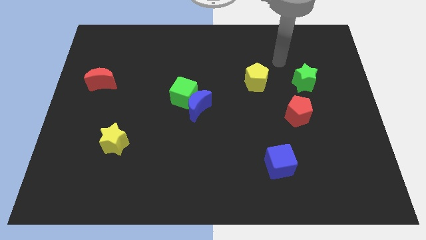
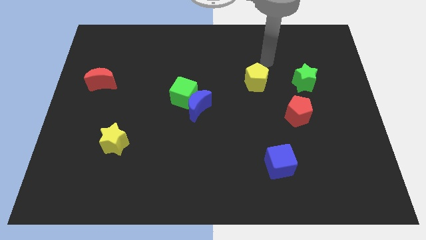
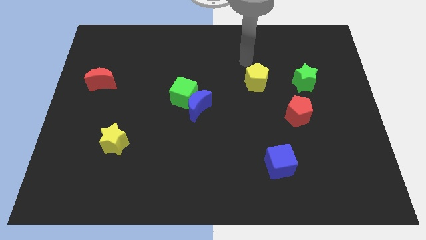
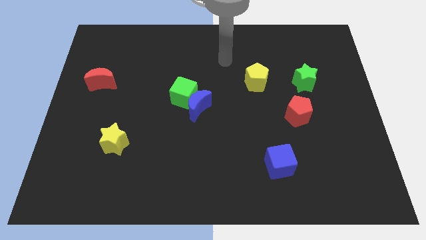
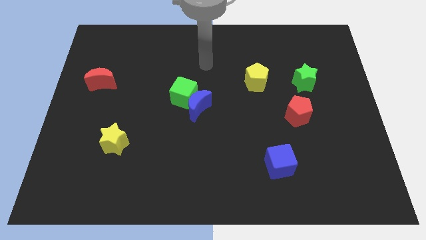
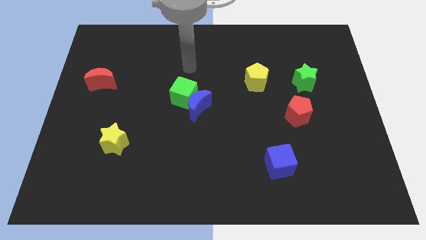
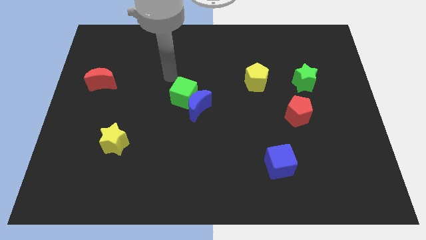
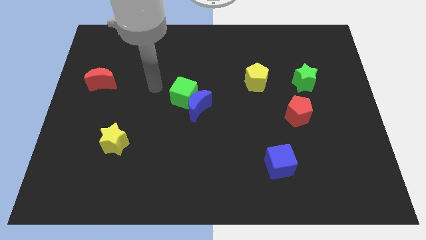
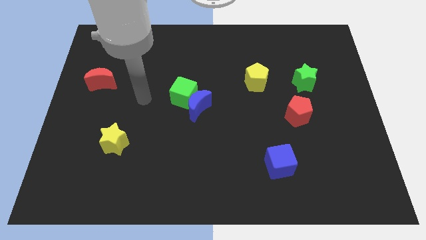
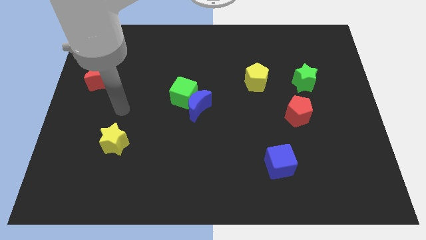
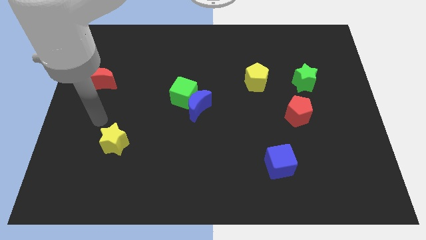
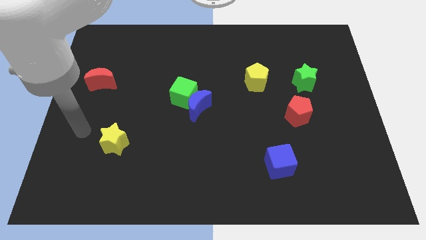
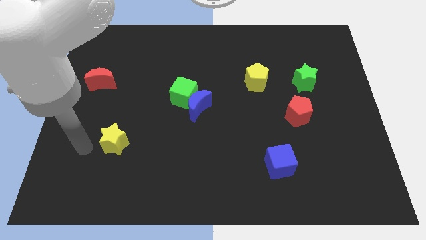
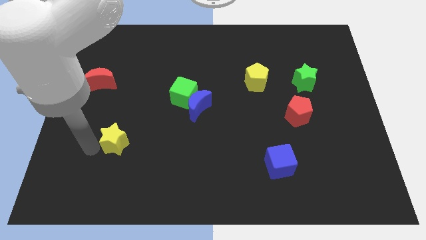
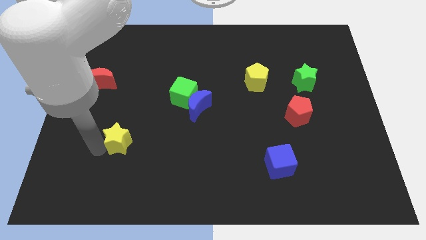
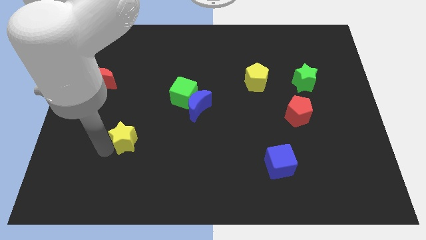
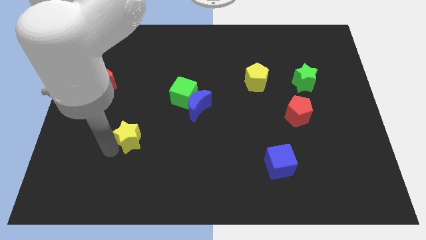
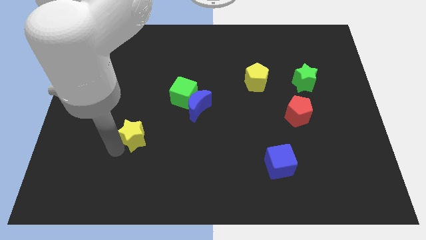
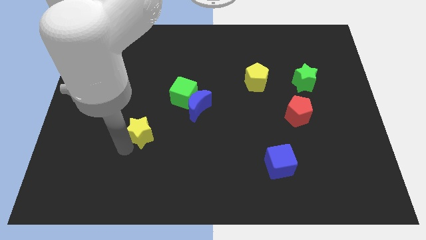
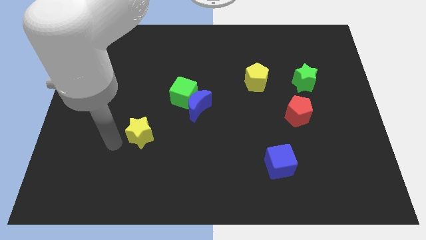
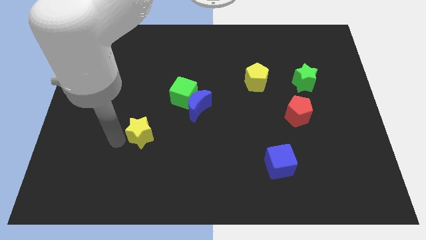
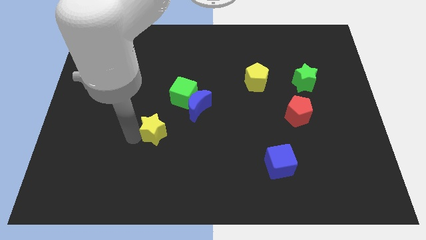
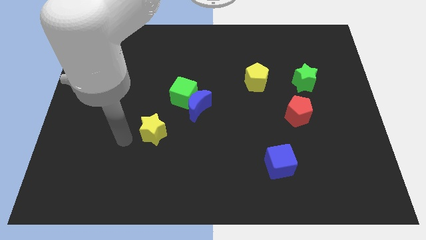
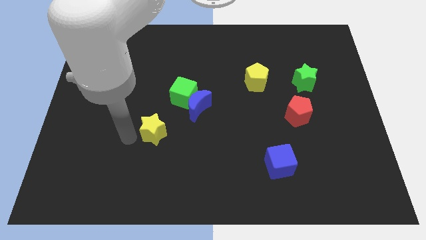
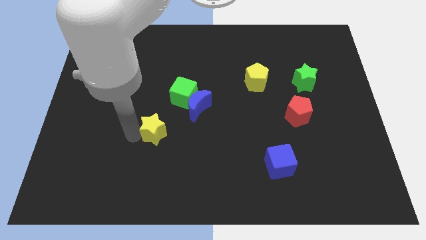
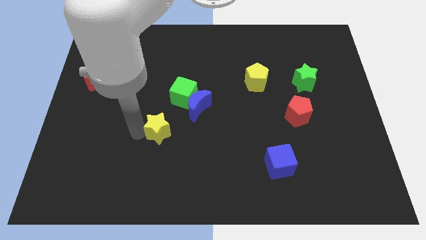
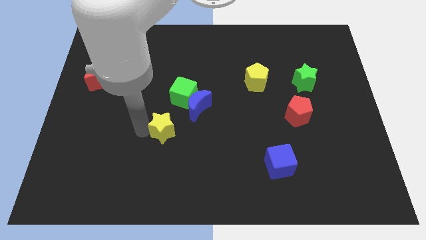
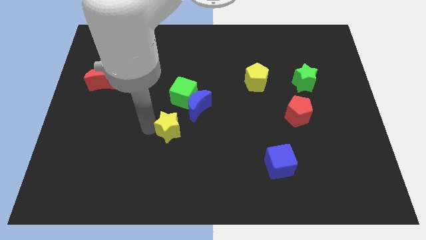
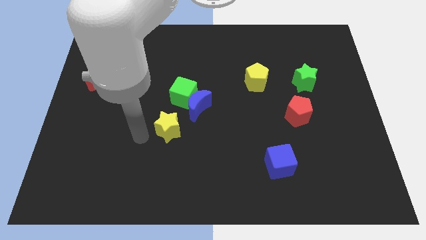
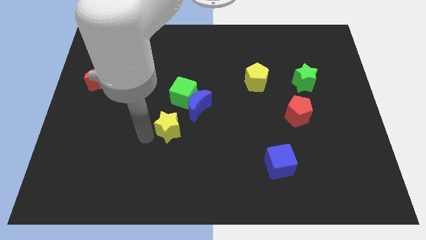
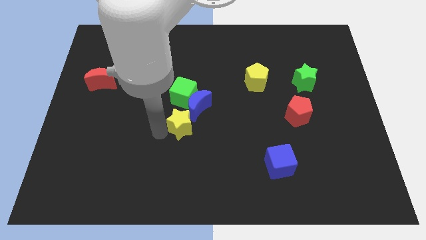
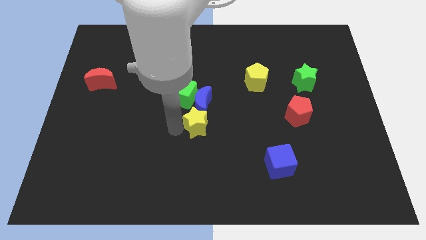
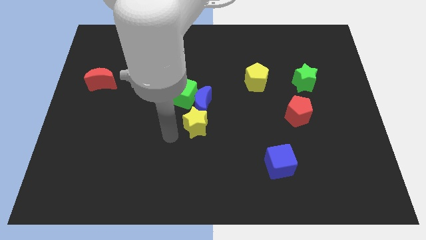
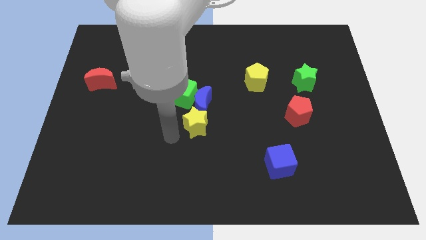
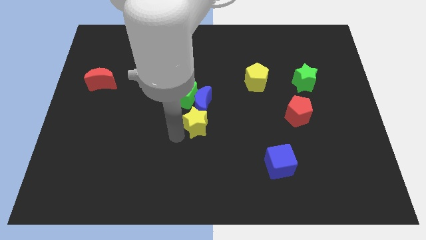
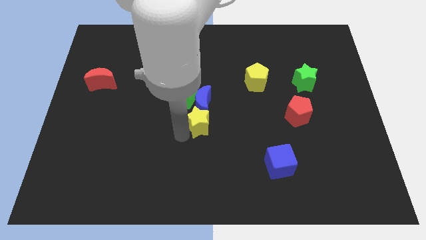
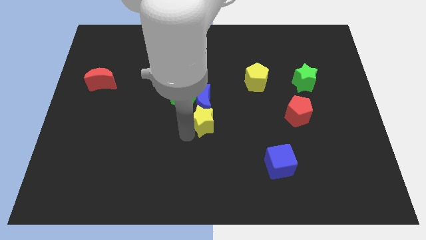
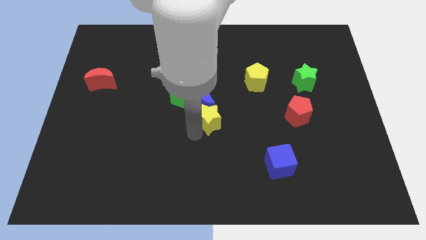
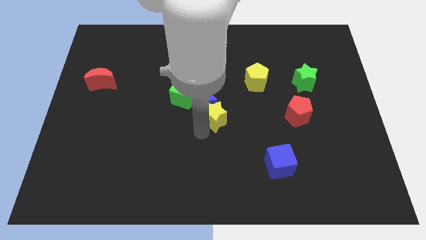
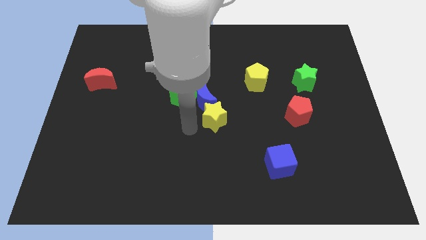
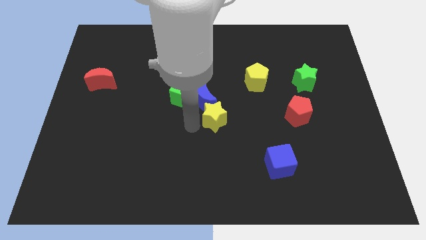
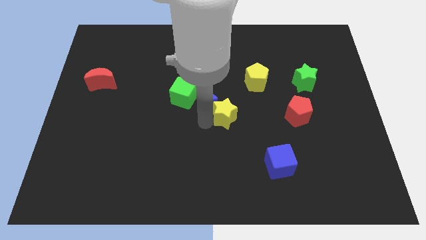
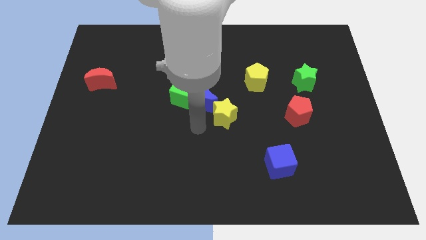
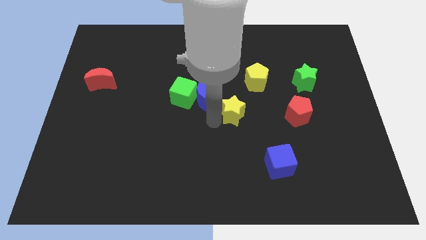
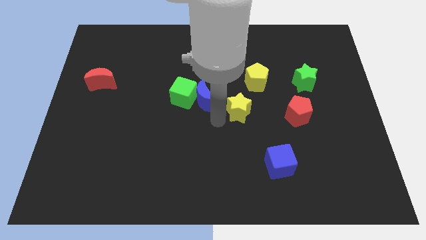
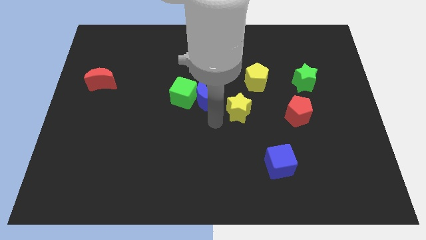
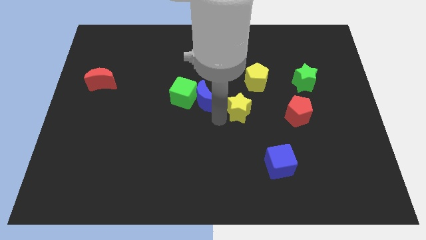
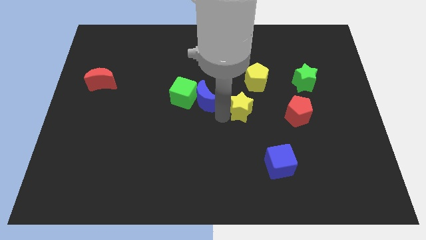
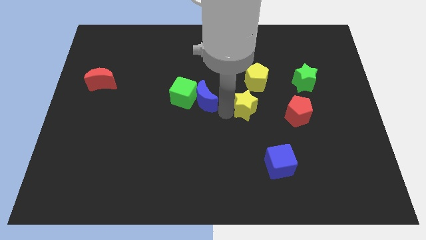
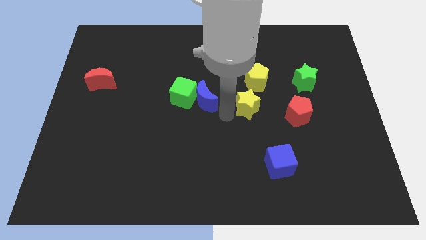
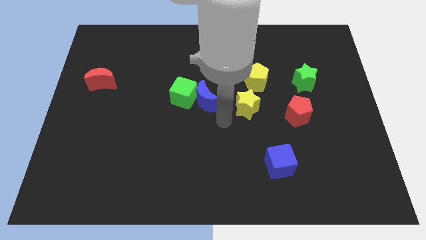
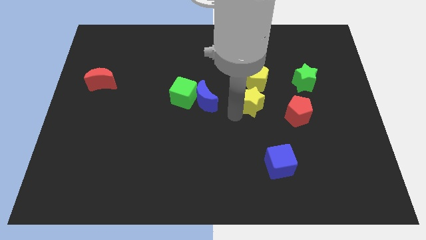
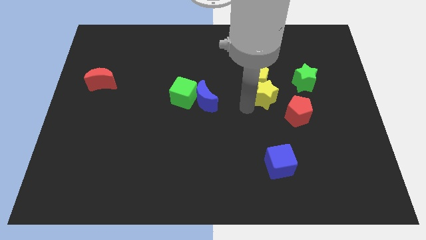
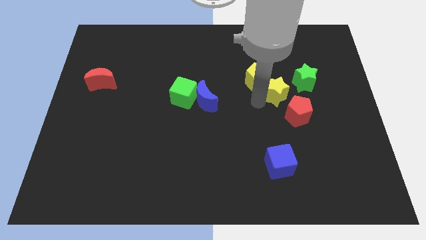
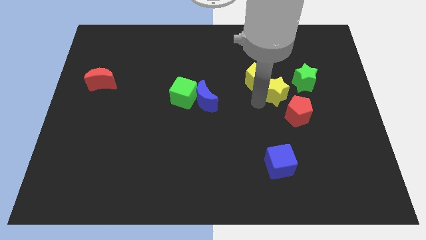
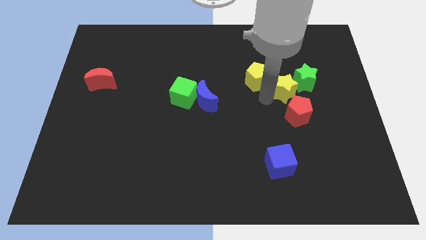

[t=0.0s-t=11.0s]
move the yellow star next to the green star

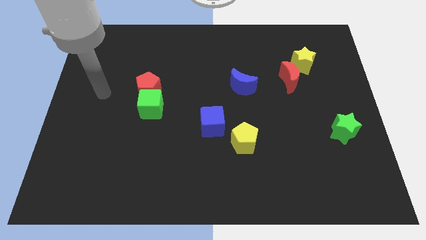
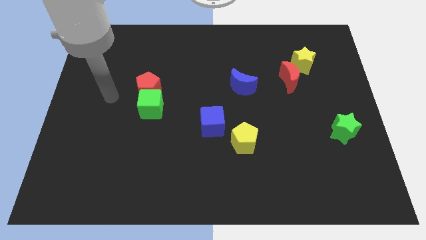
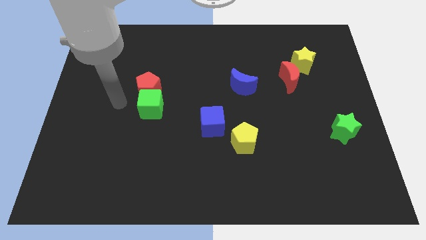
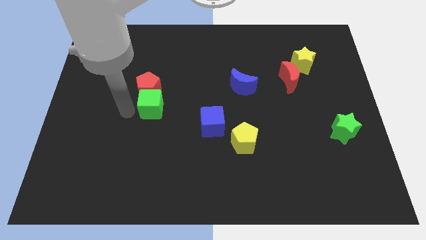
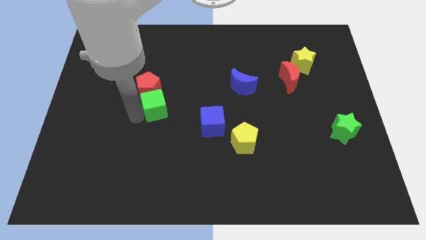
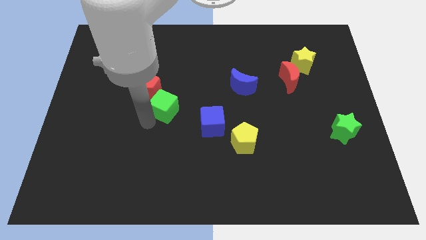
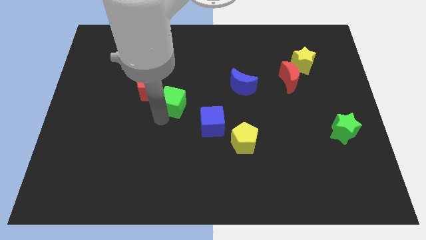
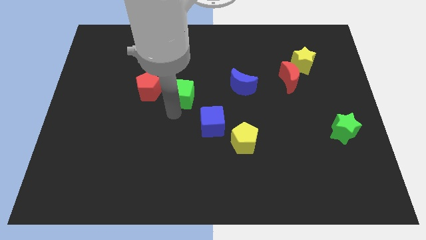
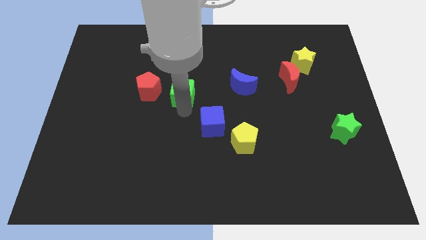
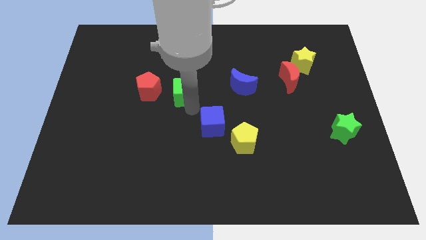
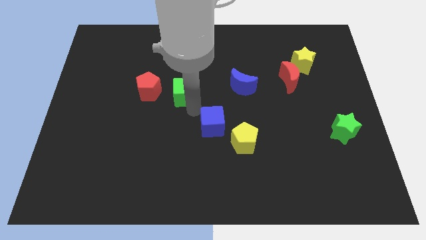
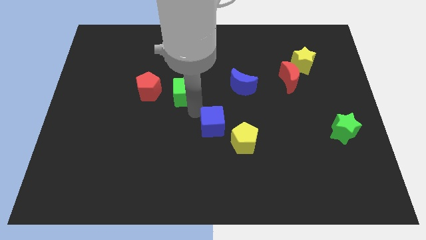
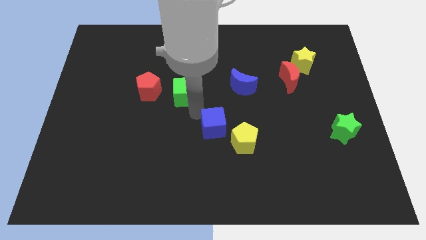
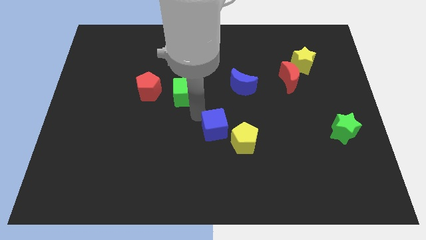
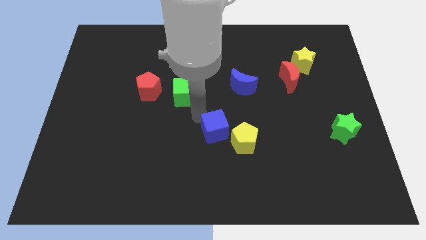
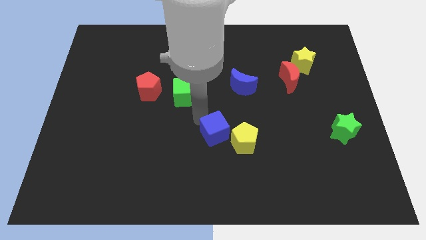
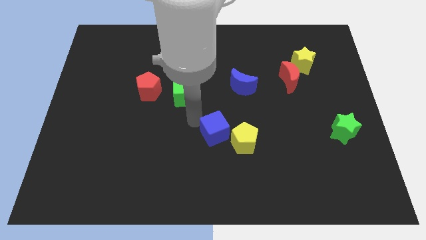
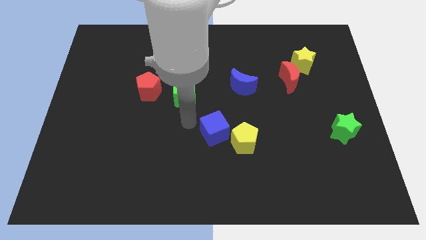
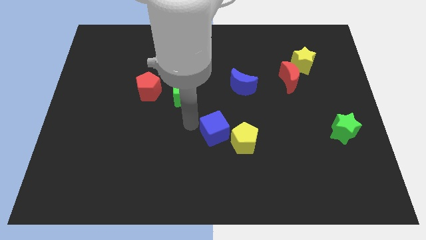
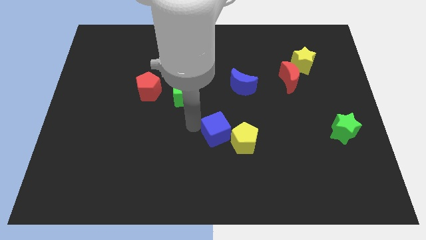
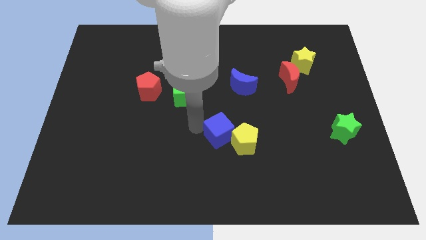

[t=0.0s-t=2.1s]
slide the blue cube towards the yellow pentagon
